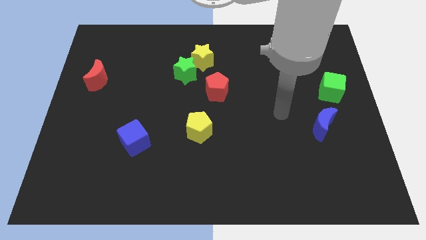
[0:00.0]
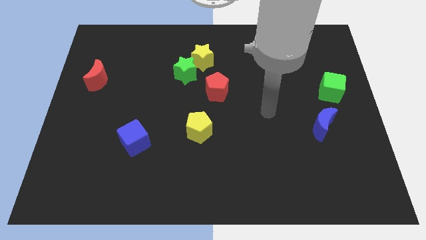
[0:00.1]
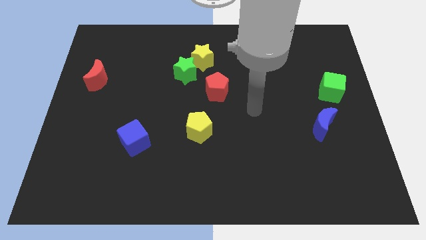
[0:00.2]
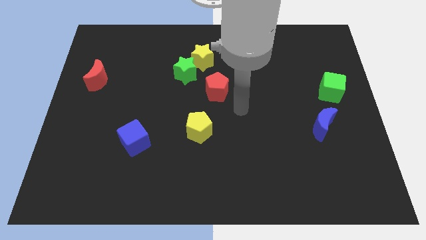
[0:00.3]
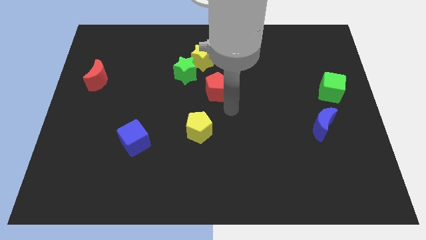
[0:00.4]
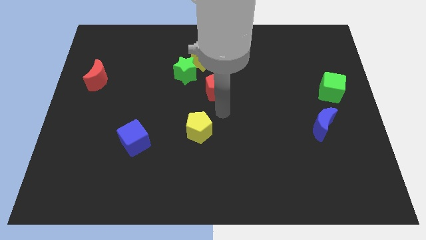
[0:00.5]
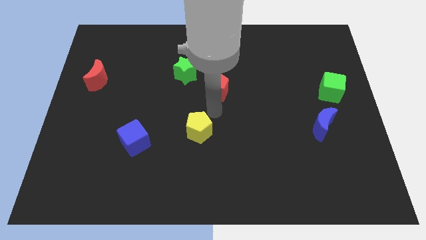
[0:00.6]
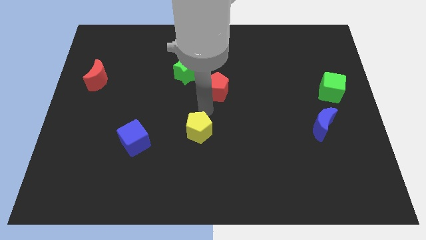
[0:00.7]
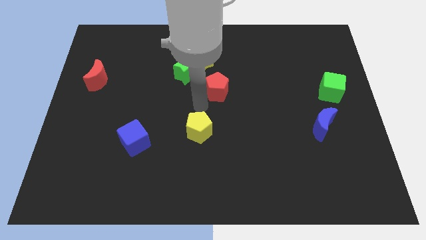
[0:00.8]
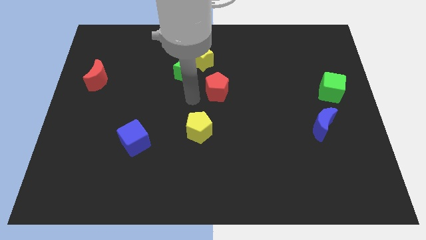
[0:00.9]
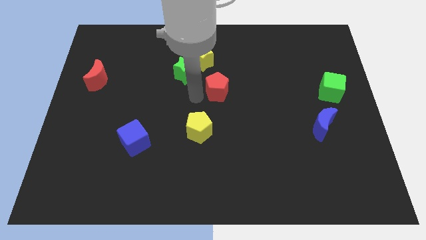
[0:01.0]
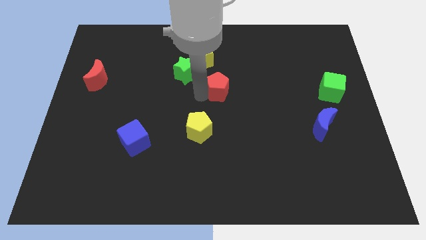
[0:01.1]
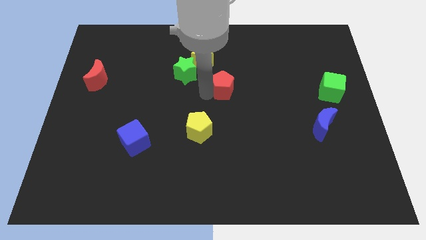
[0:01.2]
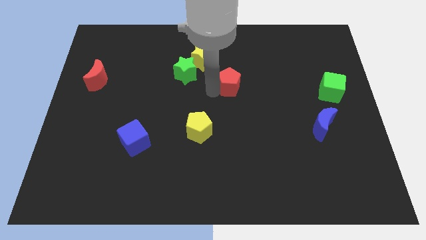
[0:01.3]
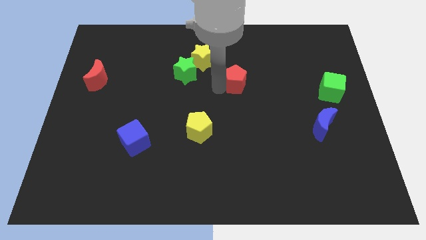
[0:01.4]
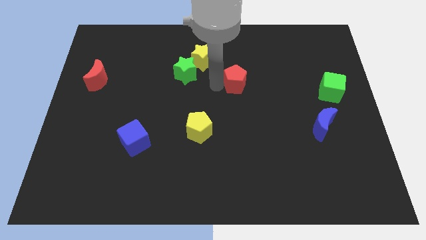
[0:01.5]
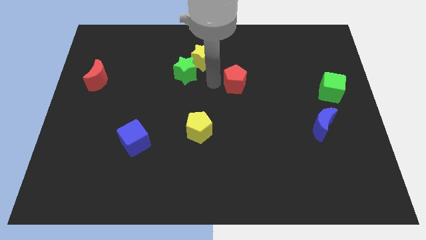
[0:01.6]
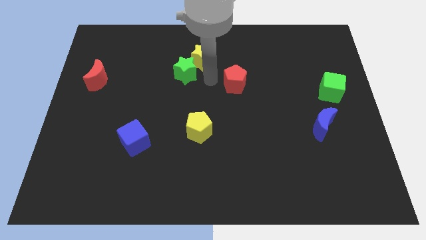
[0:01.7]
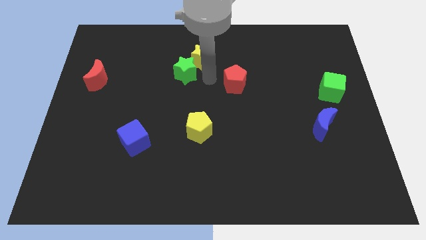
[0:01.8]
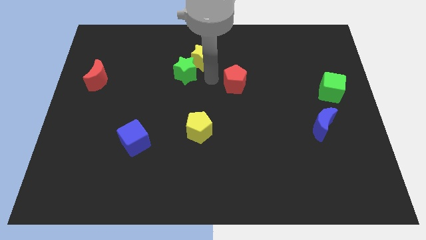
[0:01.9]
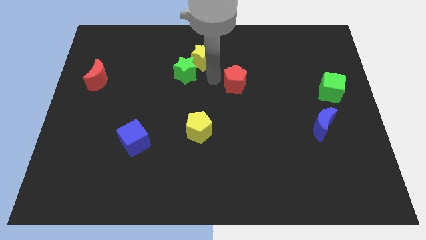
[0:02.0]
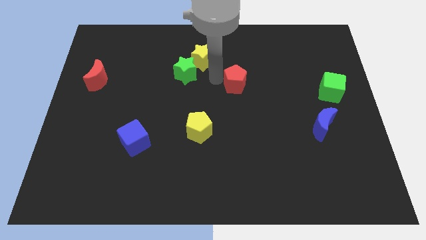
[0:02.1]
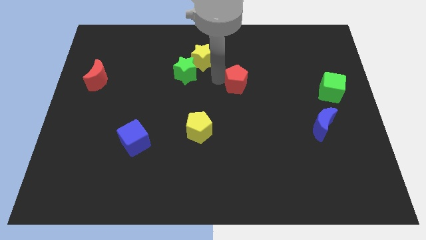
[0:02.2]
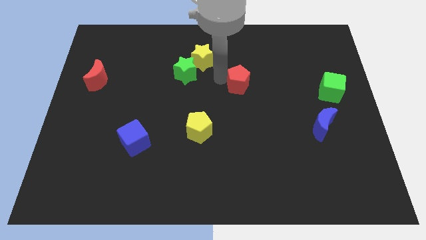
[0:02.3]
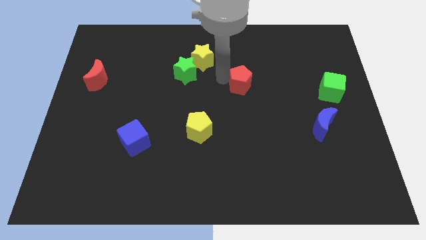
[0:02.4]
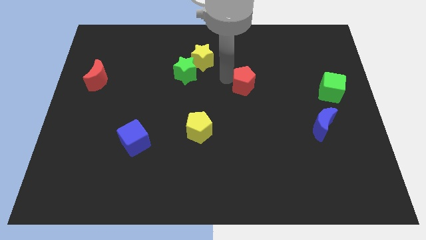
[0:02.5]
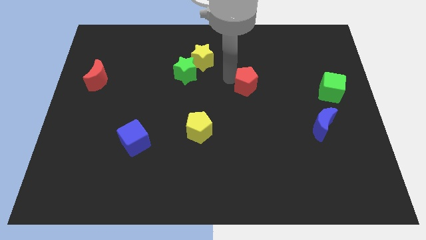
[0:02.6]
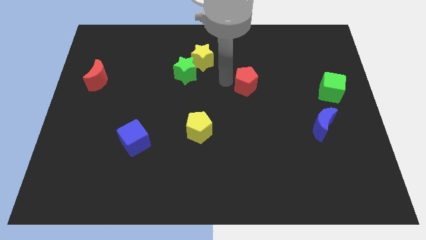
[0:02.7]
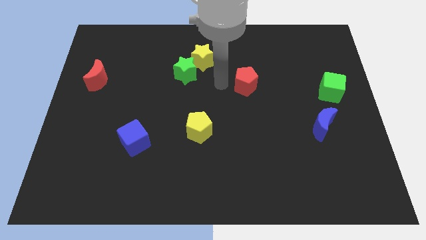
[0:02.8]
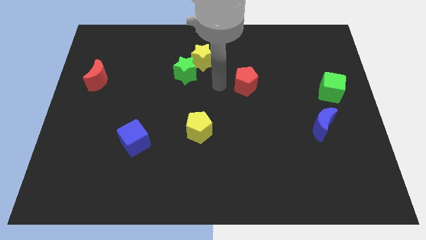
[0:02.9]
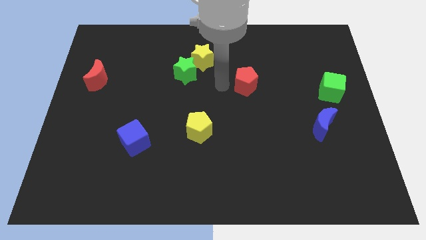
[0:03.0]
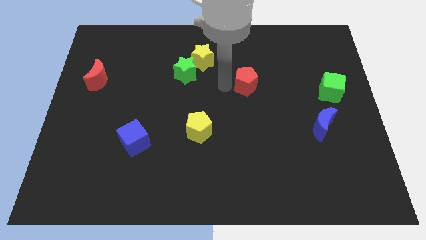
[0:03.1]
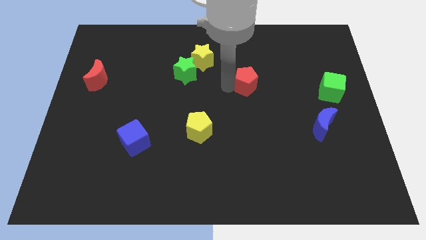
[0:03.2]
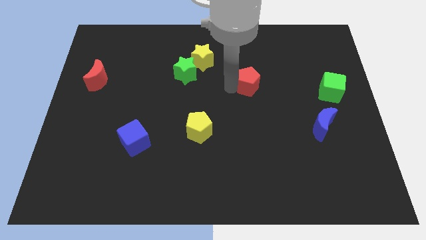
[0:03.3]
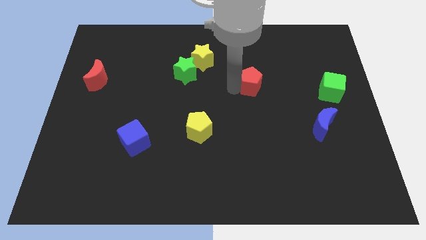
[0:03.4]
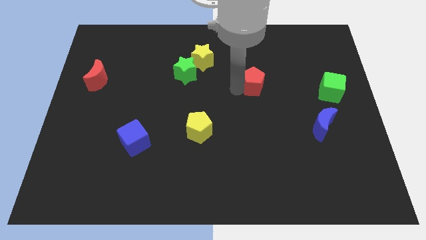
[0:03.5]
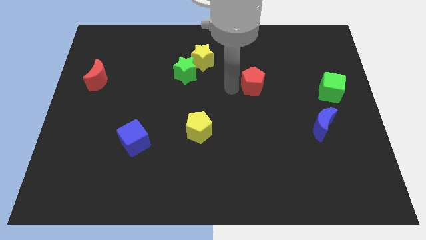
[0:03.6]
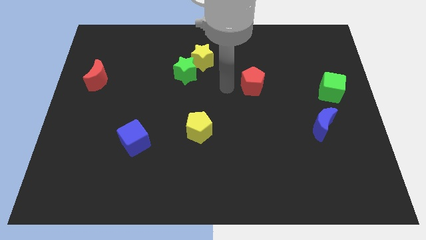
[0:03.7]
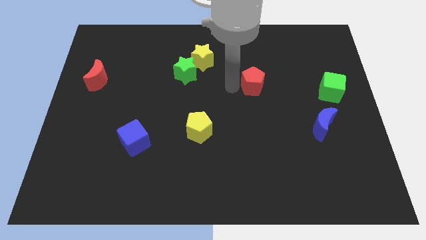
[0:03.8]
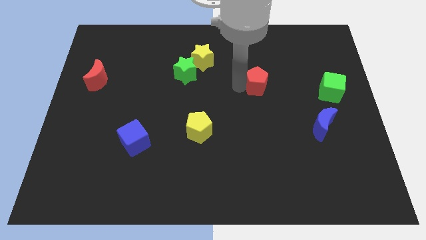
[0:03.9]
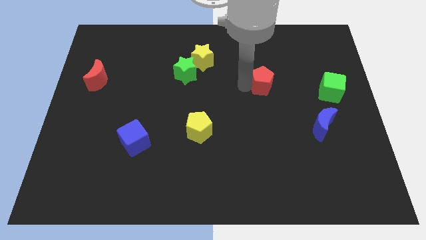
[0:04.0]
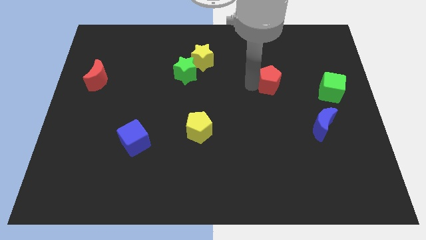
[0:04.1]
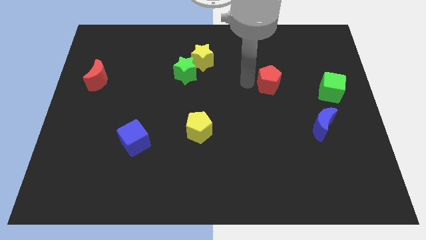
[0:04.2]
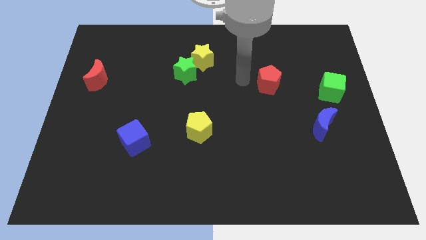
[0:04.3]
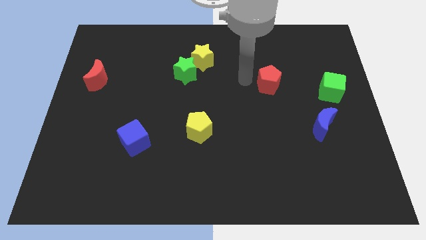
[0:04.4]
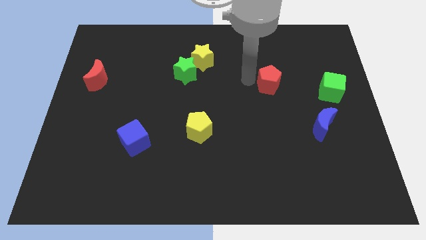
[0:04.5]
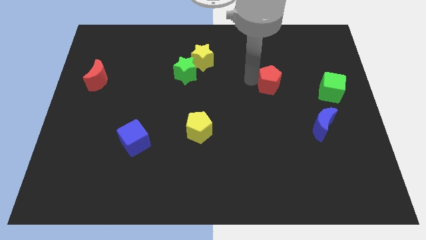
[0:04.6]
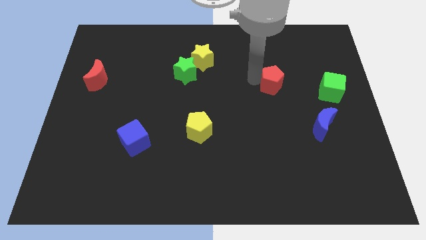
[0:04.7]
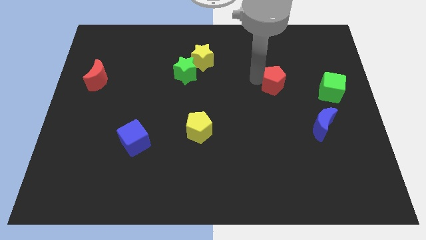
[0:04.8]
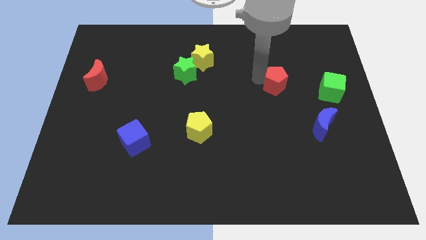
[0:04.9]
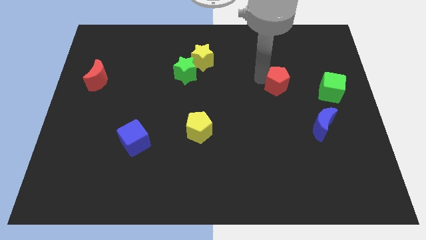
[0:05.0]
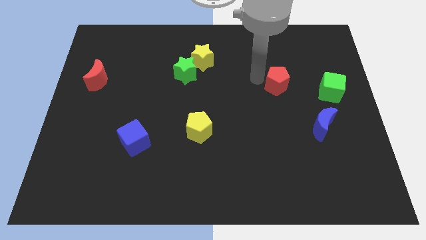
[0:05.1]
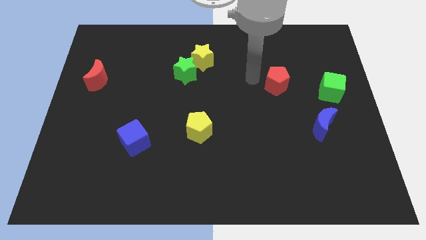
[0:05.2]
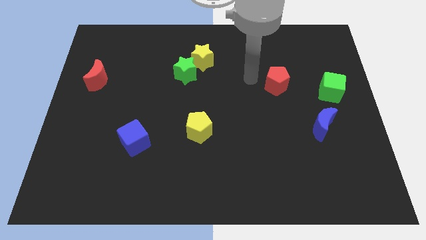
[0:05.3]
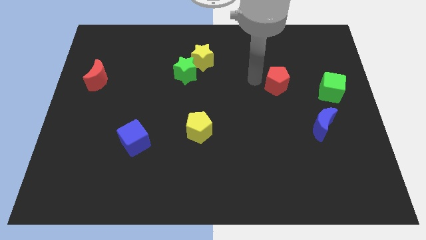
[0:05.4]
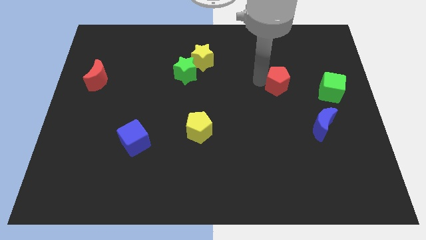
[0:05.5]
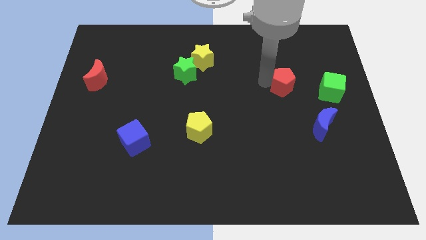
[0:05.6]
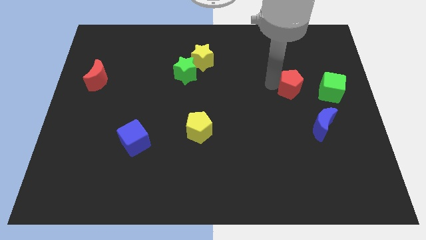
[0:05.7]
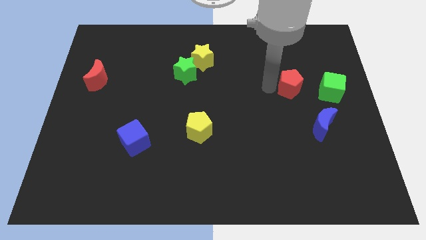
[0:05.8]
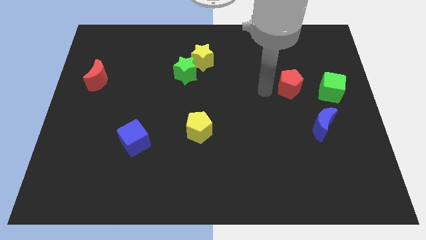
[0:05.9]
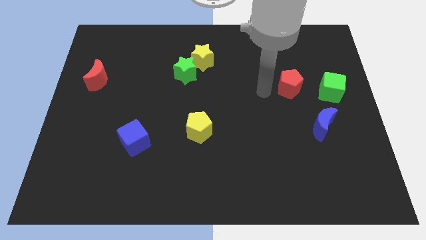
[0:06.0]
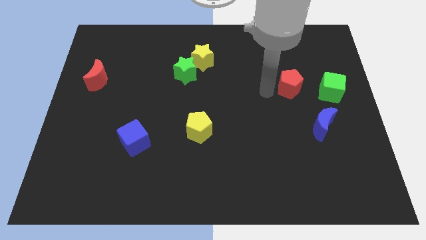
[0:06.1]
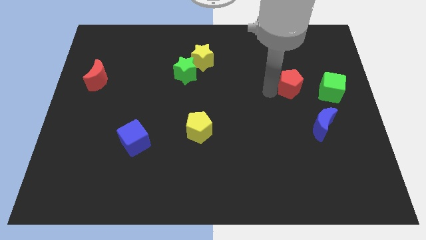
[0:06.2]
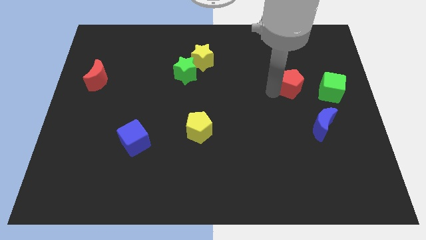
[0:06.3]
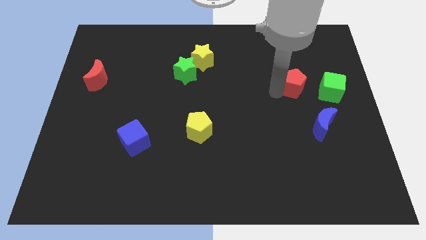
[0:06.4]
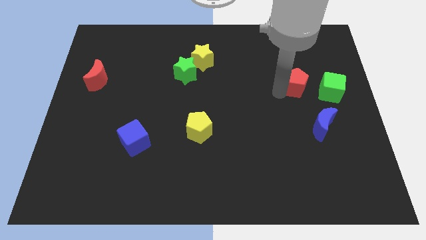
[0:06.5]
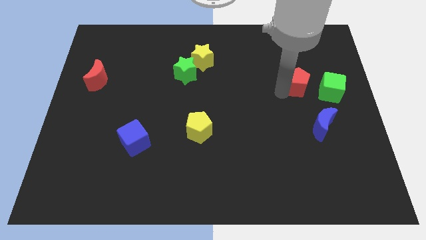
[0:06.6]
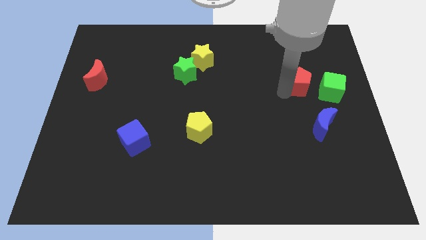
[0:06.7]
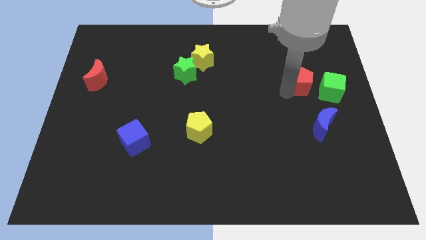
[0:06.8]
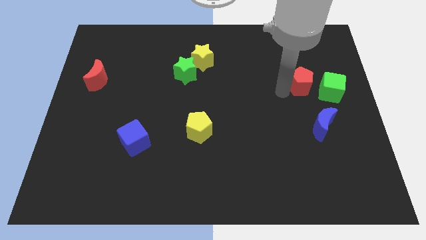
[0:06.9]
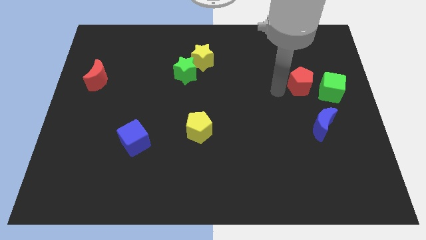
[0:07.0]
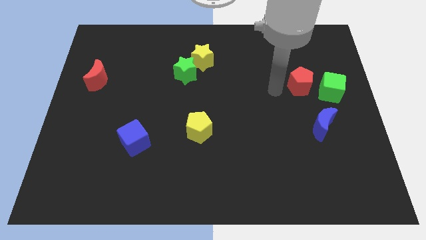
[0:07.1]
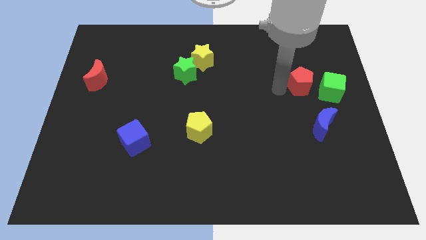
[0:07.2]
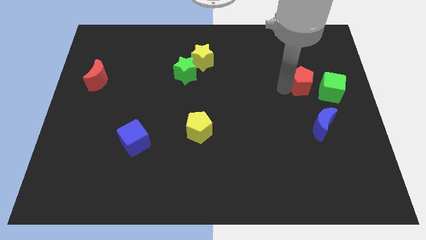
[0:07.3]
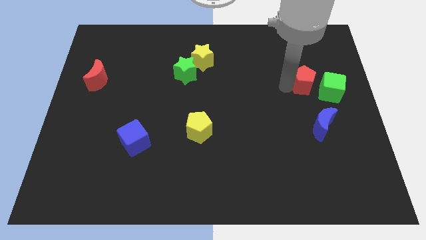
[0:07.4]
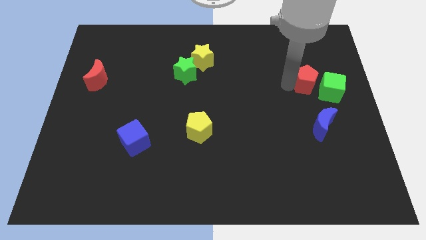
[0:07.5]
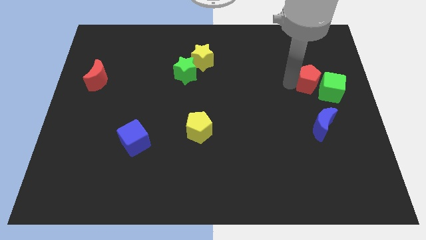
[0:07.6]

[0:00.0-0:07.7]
slide the red pentagon to the green cube
